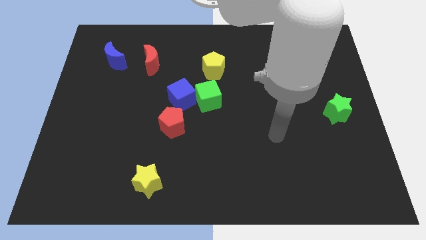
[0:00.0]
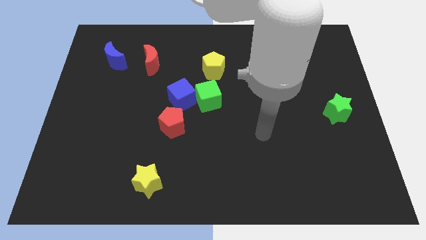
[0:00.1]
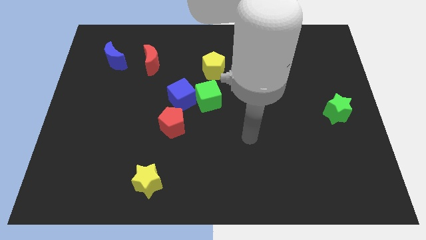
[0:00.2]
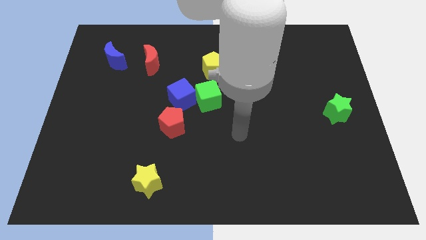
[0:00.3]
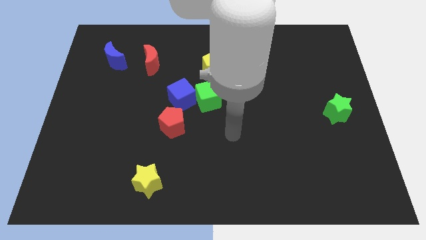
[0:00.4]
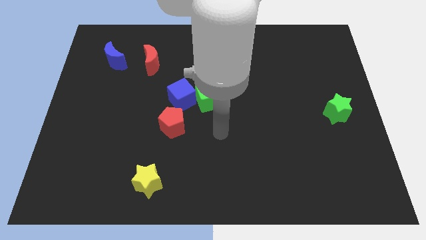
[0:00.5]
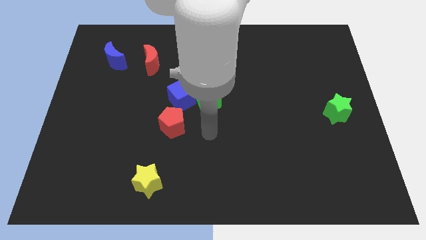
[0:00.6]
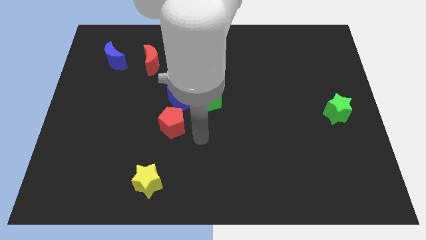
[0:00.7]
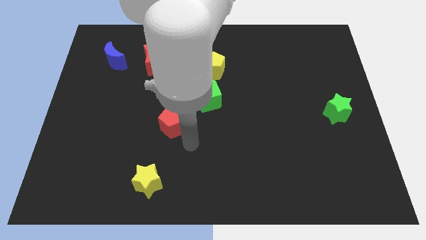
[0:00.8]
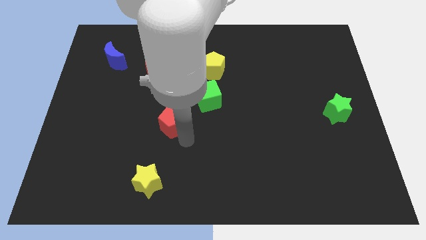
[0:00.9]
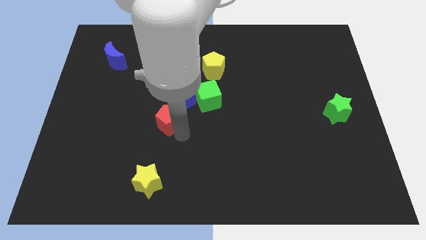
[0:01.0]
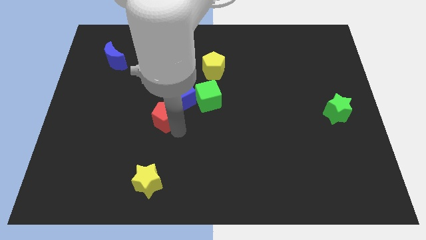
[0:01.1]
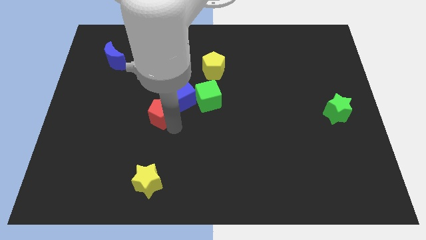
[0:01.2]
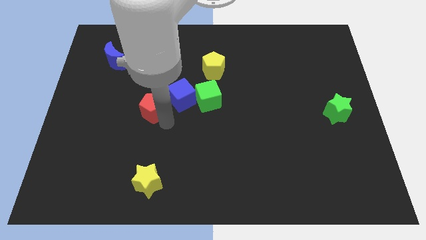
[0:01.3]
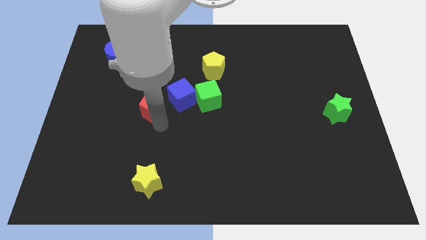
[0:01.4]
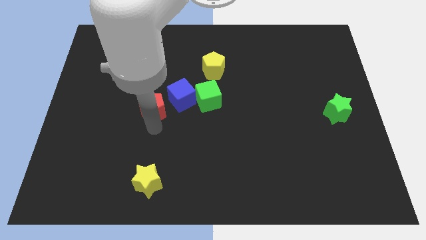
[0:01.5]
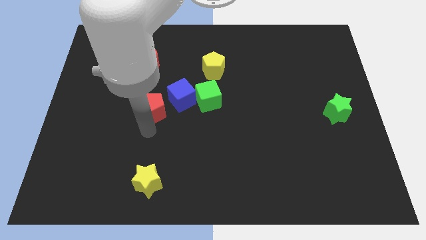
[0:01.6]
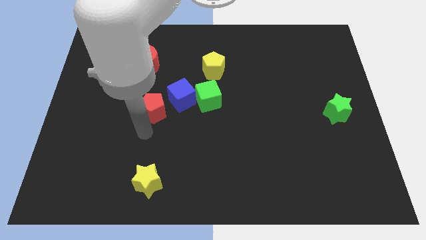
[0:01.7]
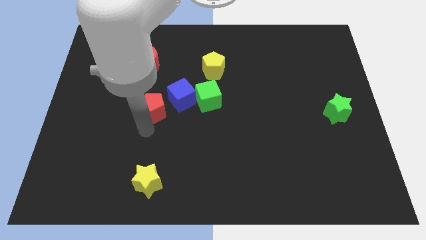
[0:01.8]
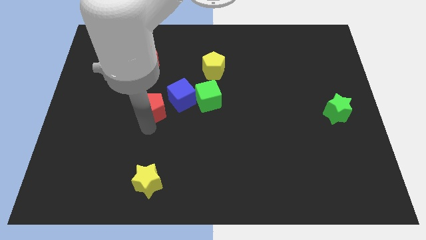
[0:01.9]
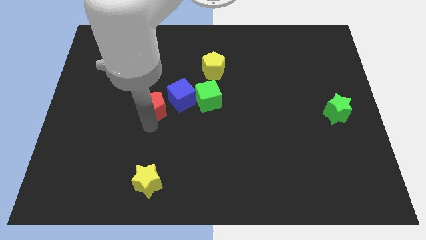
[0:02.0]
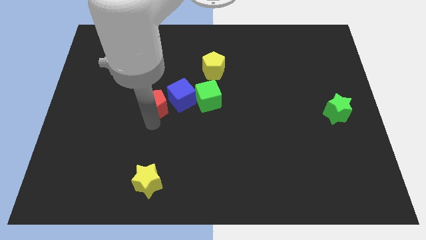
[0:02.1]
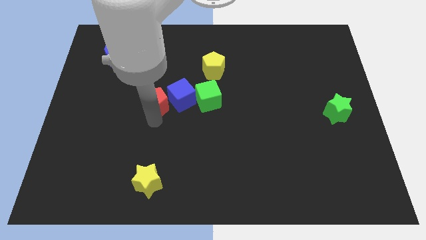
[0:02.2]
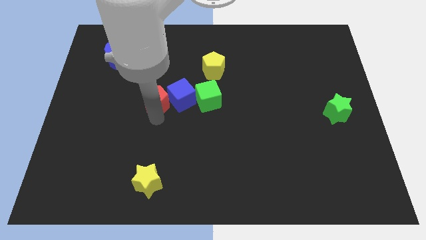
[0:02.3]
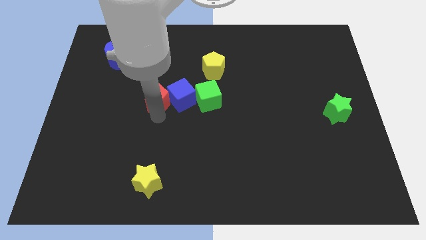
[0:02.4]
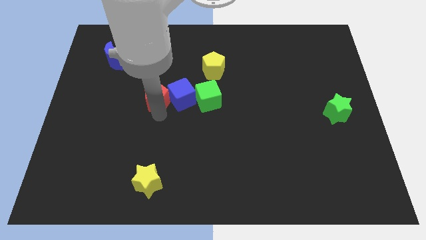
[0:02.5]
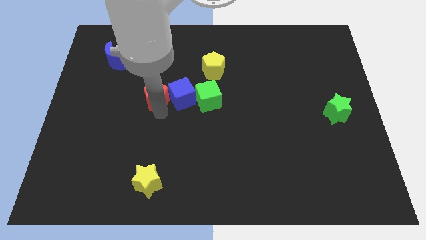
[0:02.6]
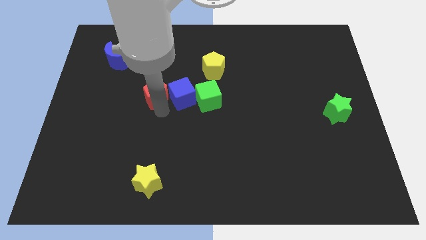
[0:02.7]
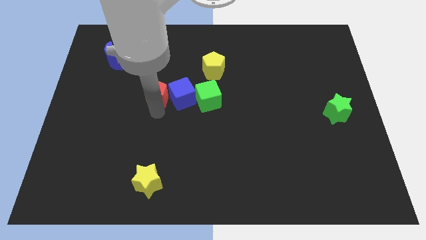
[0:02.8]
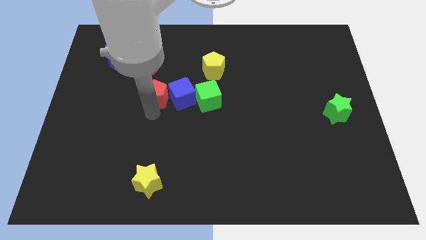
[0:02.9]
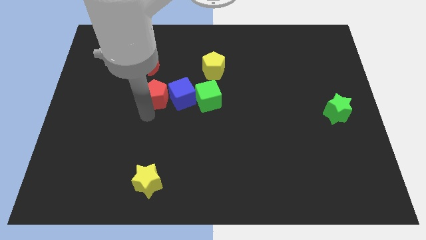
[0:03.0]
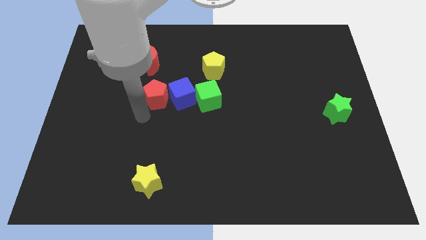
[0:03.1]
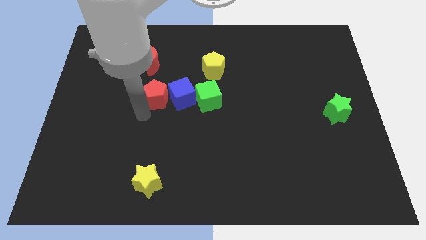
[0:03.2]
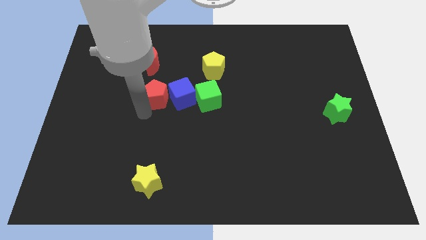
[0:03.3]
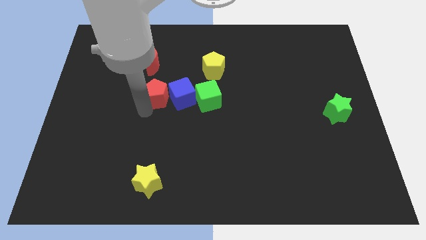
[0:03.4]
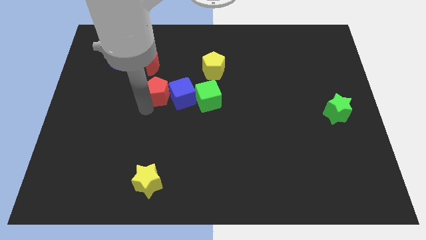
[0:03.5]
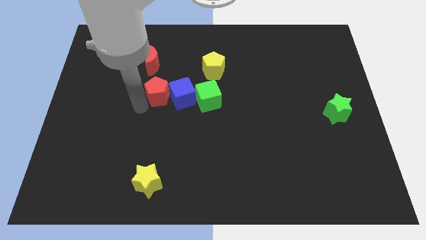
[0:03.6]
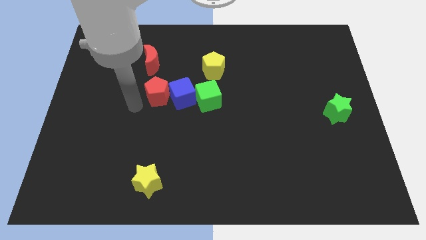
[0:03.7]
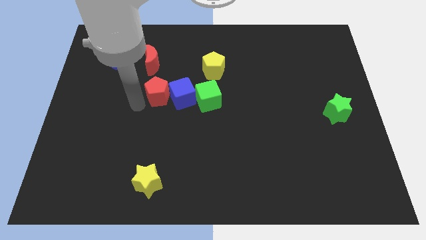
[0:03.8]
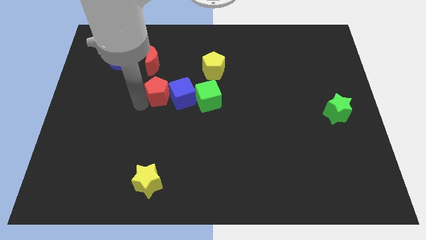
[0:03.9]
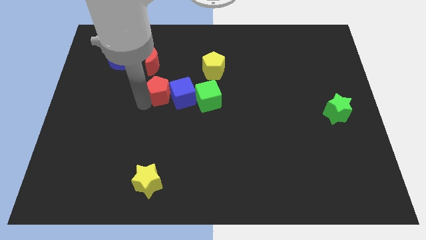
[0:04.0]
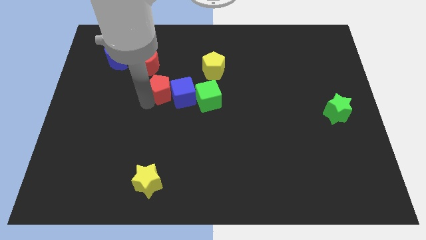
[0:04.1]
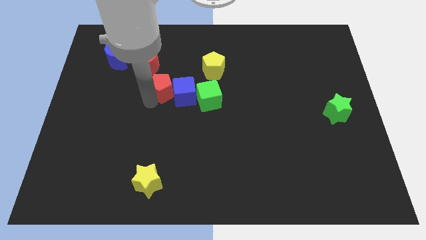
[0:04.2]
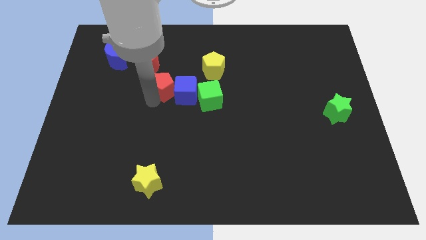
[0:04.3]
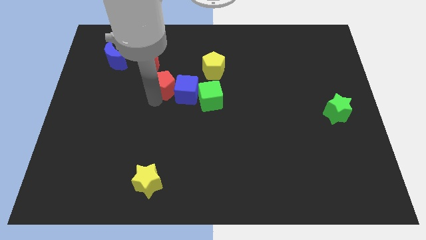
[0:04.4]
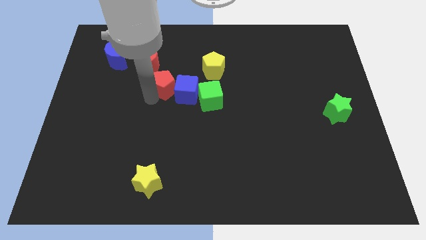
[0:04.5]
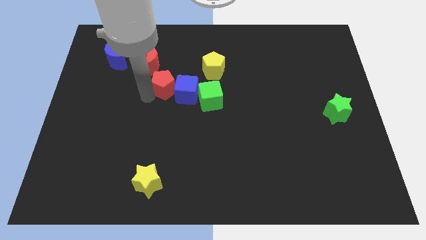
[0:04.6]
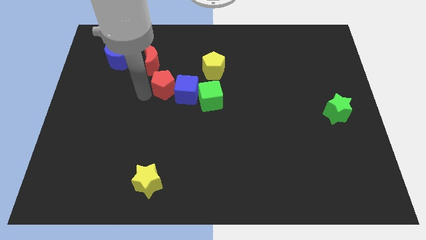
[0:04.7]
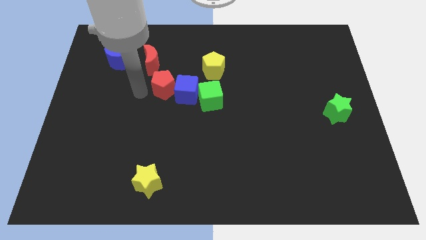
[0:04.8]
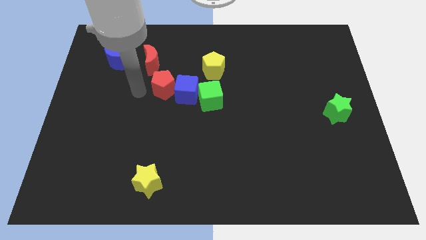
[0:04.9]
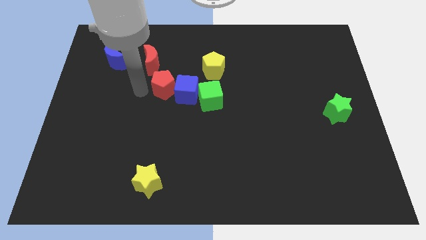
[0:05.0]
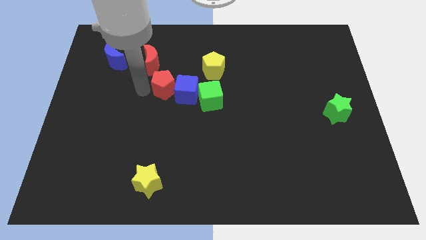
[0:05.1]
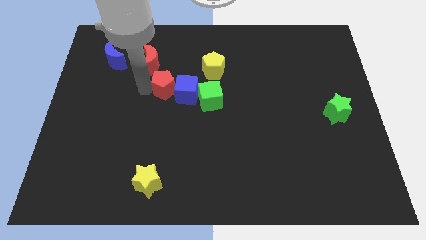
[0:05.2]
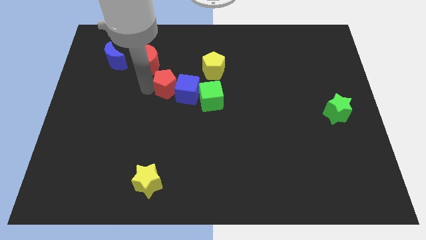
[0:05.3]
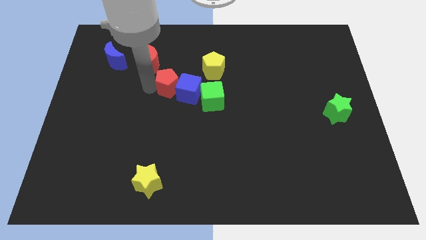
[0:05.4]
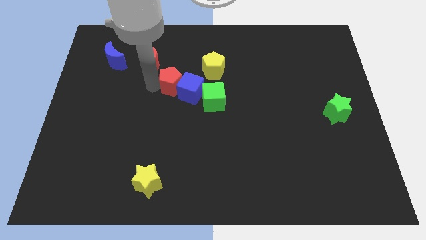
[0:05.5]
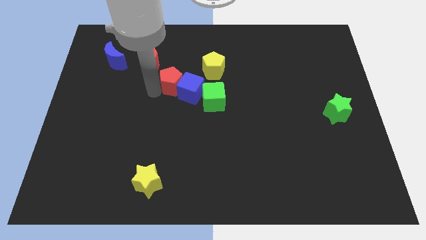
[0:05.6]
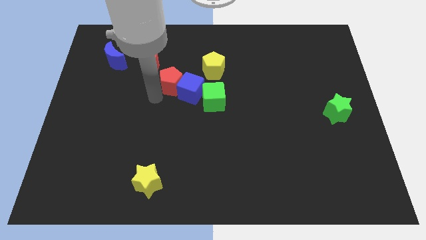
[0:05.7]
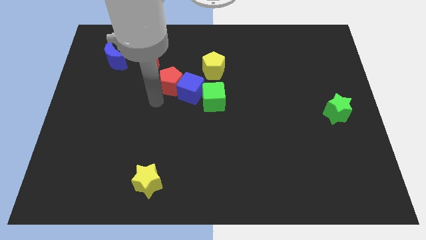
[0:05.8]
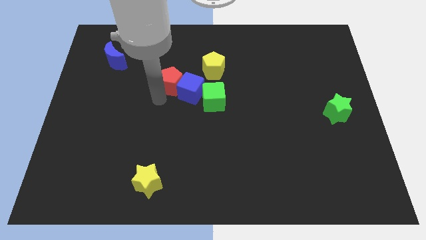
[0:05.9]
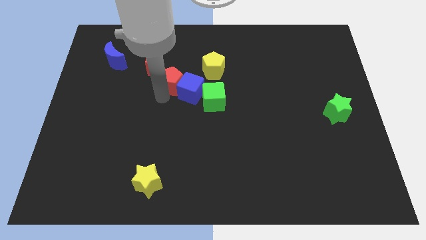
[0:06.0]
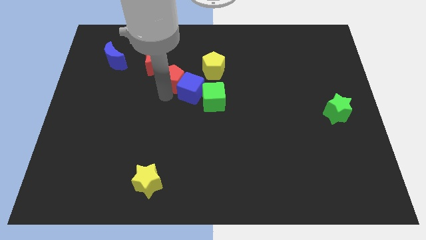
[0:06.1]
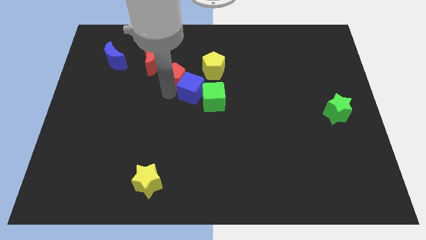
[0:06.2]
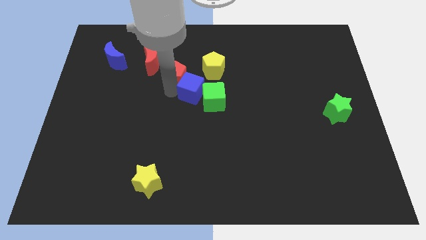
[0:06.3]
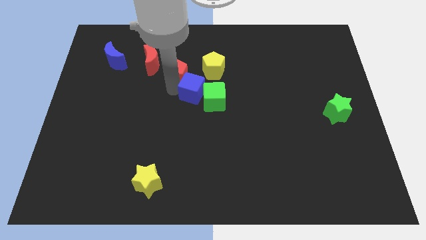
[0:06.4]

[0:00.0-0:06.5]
put the red pentagon to the right side of the red moon

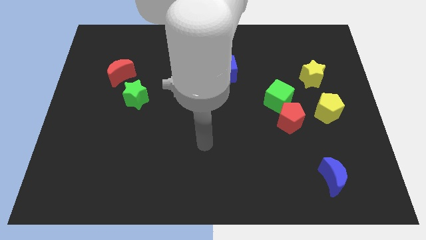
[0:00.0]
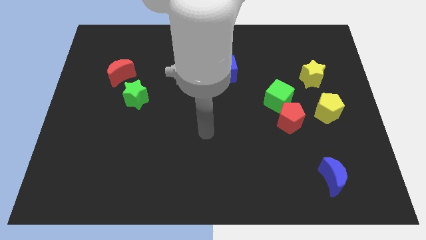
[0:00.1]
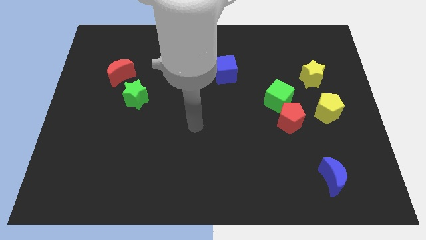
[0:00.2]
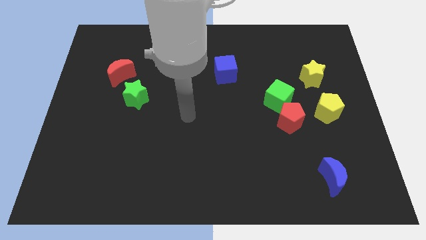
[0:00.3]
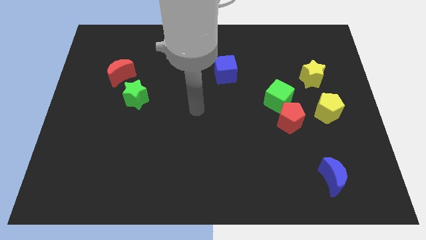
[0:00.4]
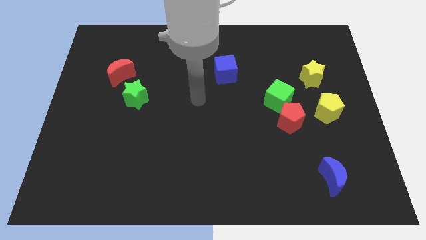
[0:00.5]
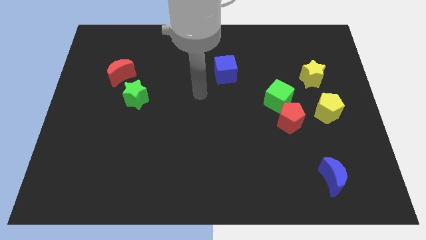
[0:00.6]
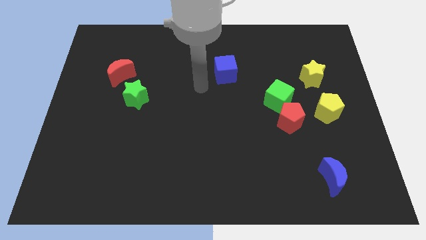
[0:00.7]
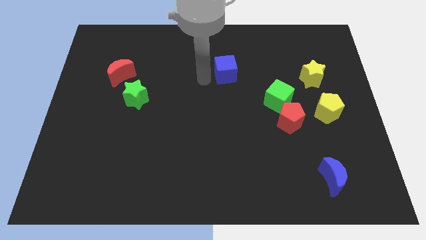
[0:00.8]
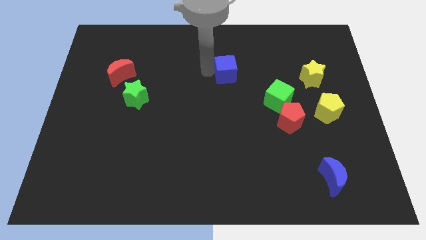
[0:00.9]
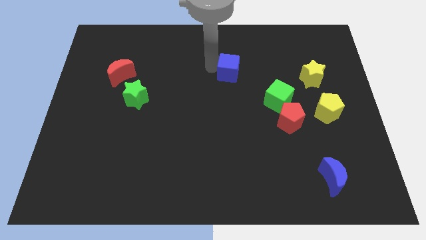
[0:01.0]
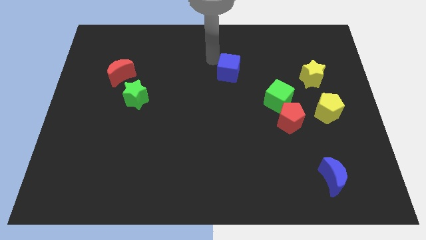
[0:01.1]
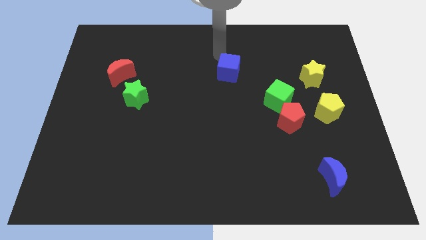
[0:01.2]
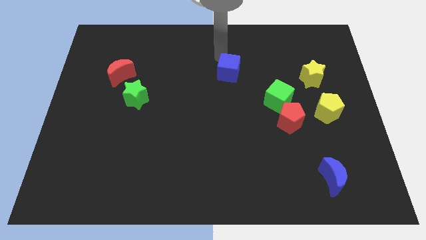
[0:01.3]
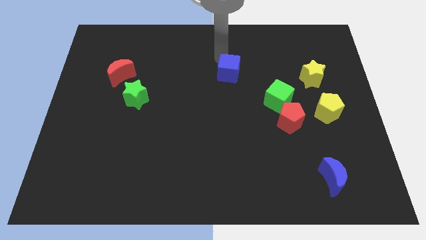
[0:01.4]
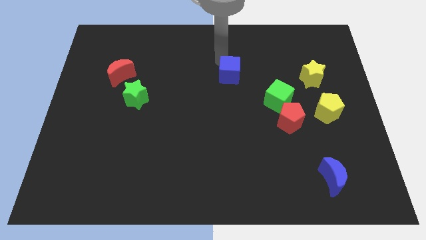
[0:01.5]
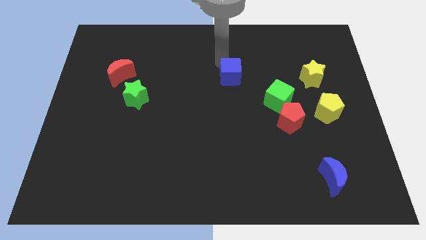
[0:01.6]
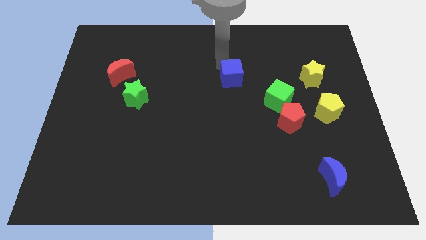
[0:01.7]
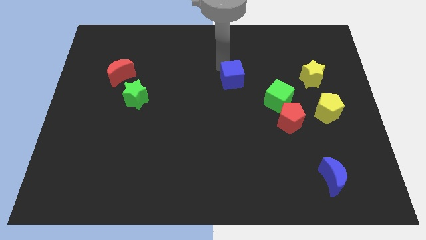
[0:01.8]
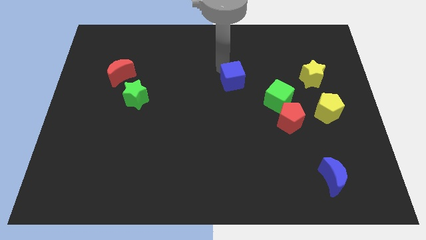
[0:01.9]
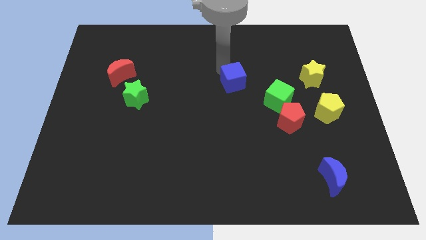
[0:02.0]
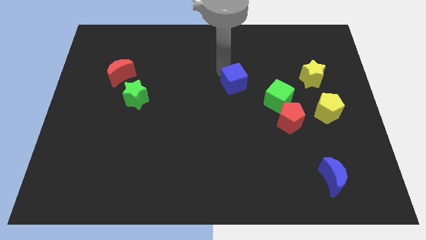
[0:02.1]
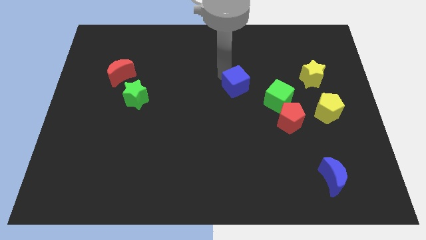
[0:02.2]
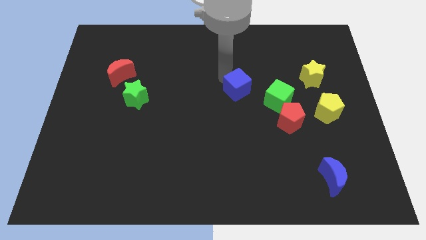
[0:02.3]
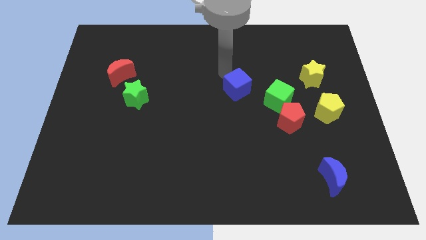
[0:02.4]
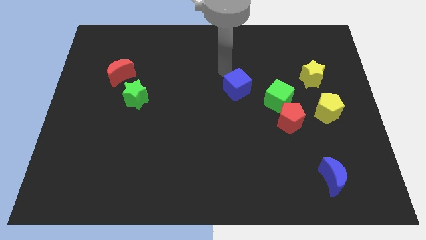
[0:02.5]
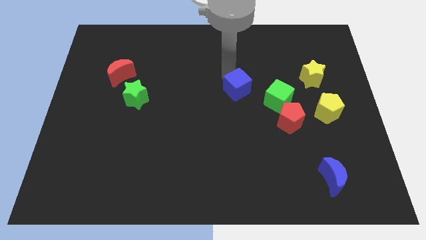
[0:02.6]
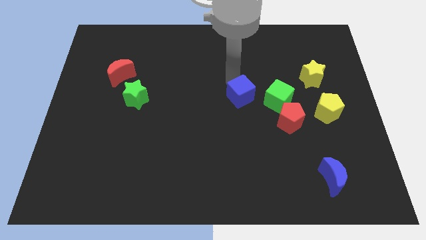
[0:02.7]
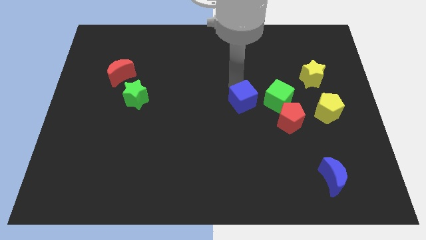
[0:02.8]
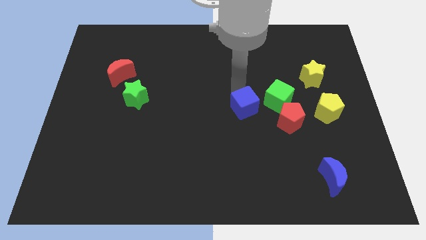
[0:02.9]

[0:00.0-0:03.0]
move the blue cube to the bottom left of the green cube
